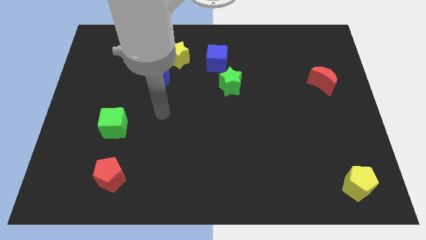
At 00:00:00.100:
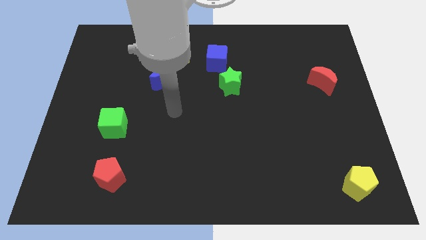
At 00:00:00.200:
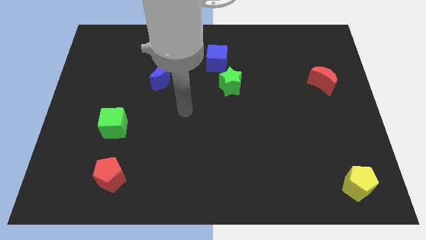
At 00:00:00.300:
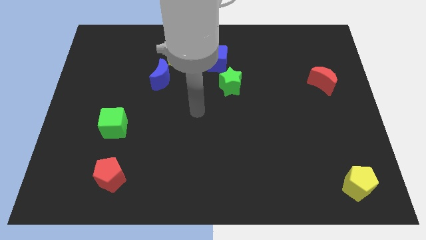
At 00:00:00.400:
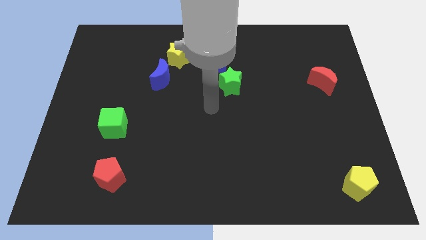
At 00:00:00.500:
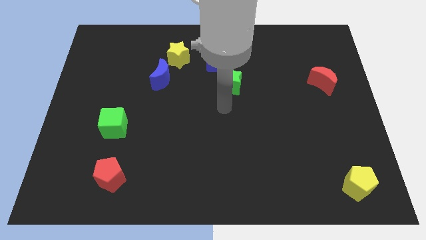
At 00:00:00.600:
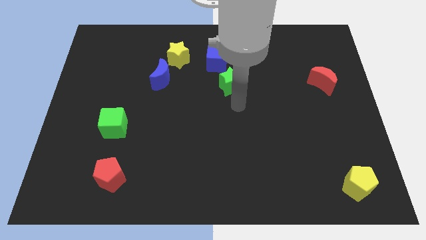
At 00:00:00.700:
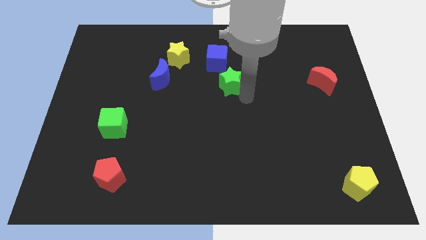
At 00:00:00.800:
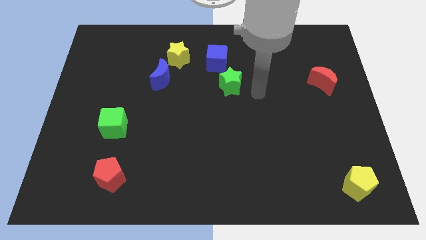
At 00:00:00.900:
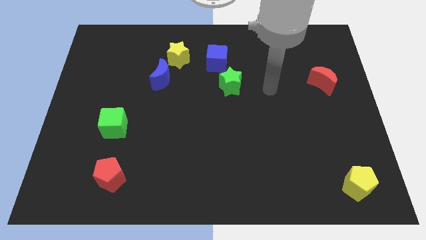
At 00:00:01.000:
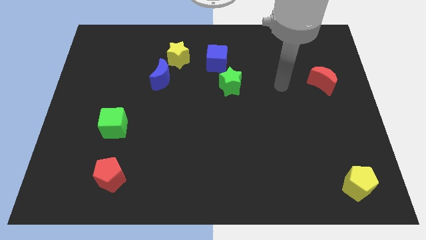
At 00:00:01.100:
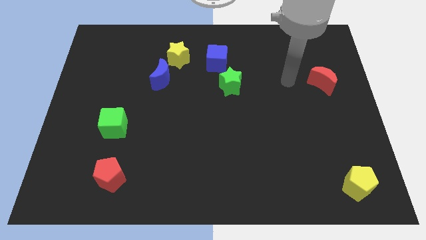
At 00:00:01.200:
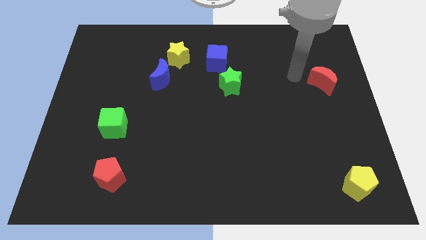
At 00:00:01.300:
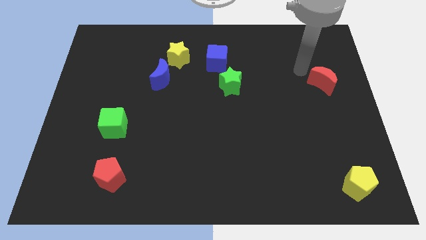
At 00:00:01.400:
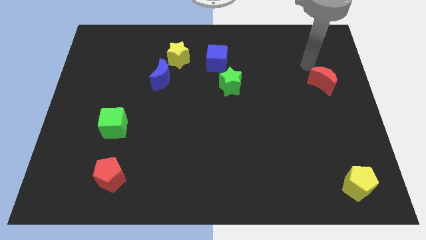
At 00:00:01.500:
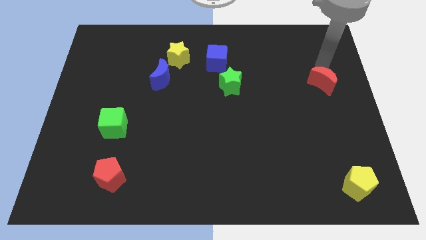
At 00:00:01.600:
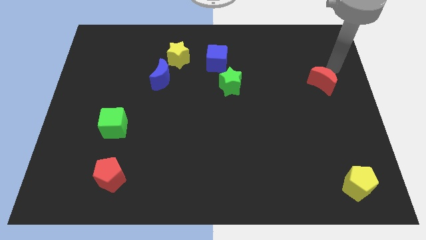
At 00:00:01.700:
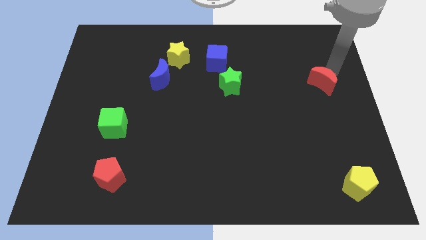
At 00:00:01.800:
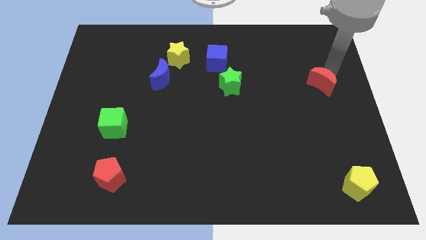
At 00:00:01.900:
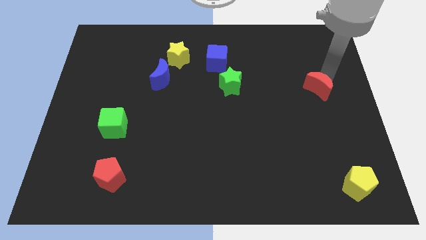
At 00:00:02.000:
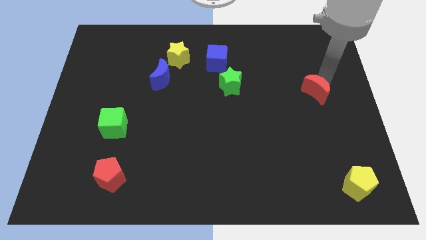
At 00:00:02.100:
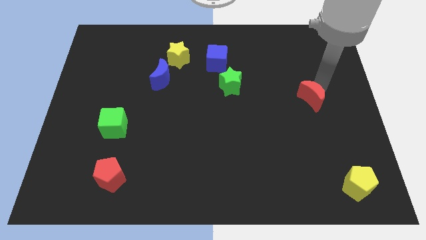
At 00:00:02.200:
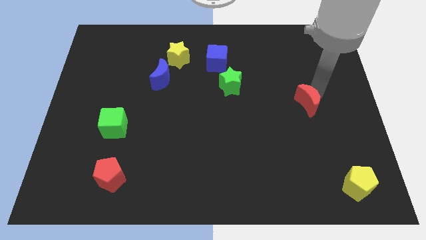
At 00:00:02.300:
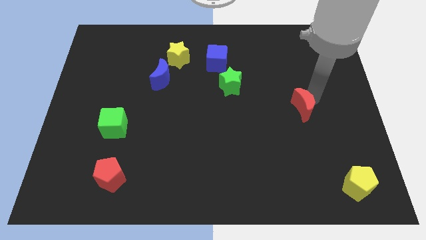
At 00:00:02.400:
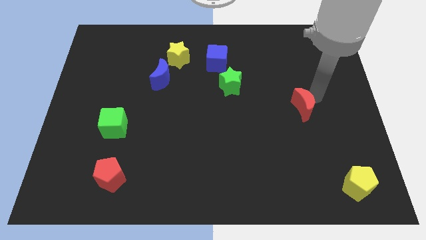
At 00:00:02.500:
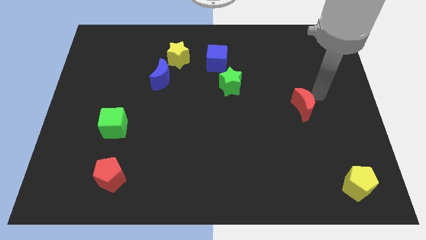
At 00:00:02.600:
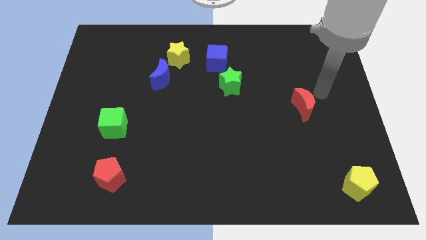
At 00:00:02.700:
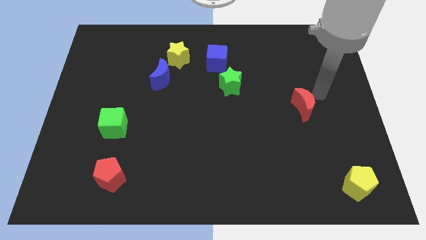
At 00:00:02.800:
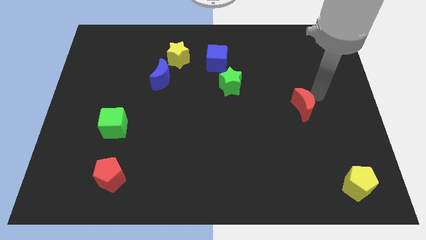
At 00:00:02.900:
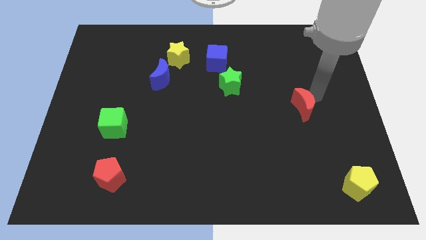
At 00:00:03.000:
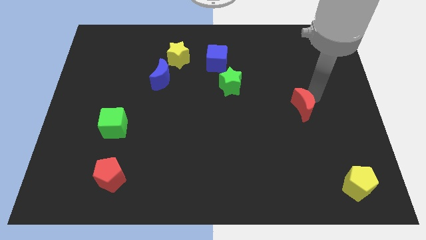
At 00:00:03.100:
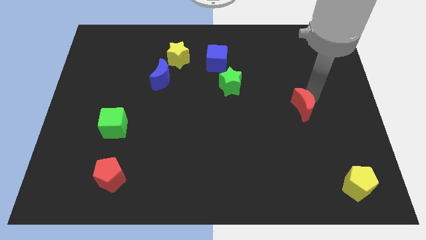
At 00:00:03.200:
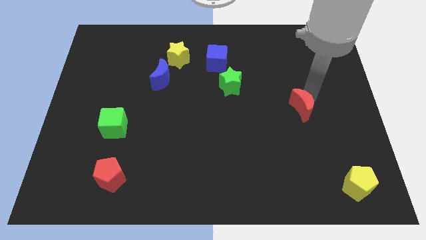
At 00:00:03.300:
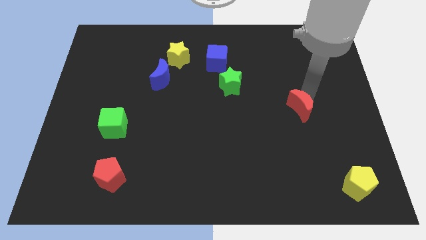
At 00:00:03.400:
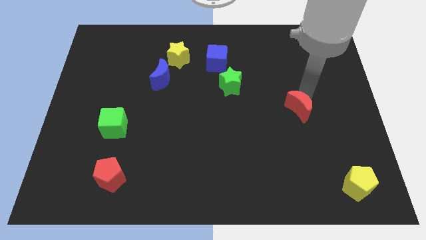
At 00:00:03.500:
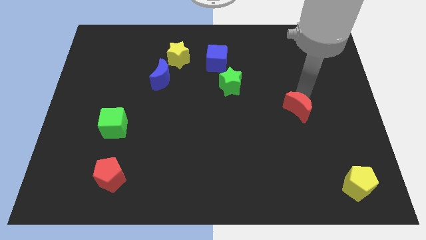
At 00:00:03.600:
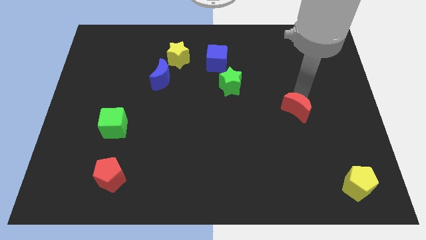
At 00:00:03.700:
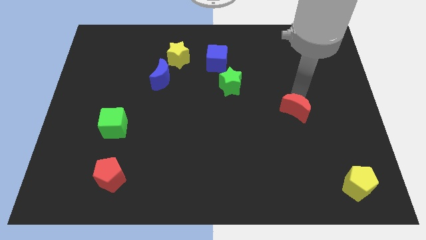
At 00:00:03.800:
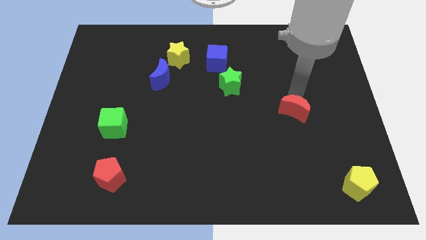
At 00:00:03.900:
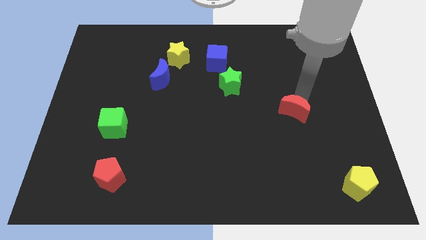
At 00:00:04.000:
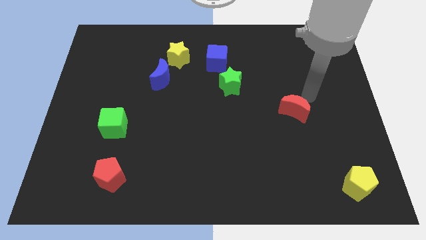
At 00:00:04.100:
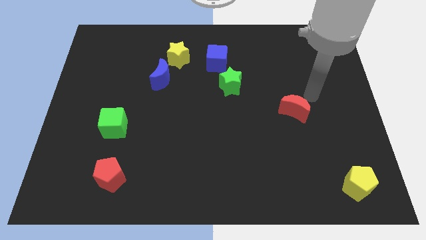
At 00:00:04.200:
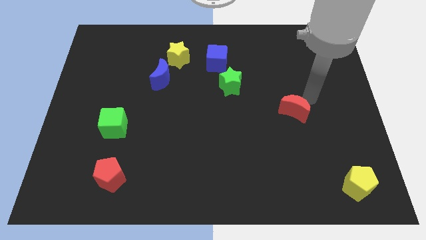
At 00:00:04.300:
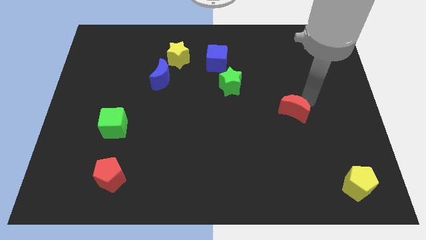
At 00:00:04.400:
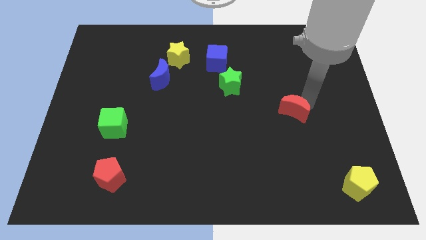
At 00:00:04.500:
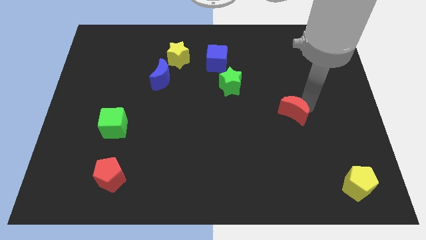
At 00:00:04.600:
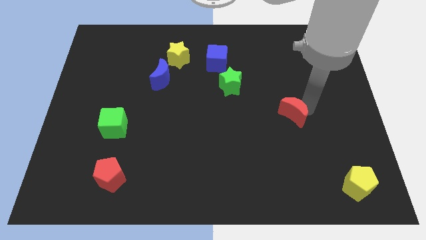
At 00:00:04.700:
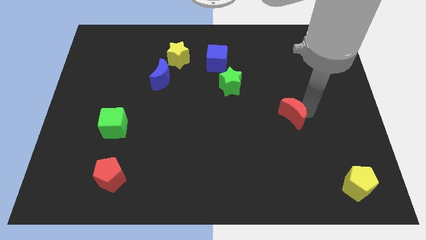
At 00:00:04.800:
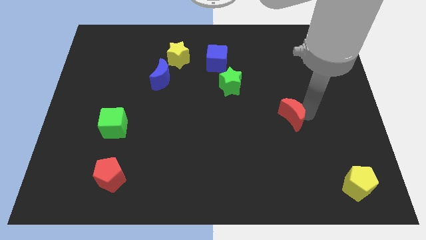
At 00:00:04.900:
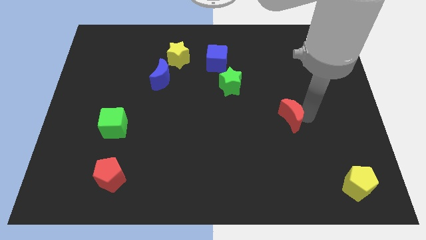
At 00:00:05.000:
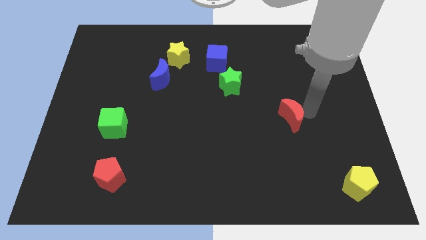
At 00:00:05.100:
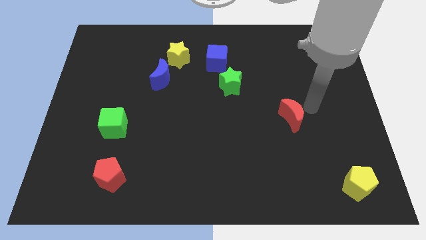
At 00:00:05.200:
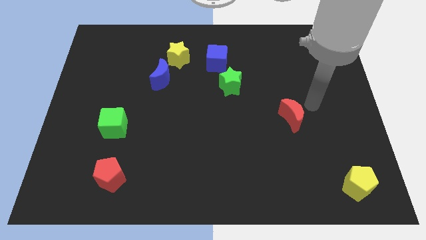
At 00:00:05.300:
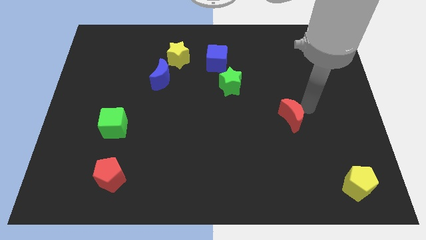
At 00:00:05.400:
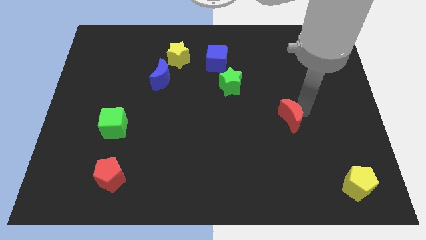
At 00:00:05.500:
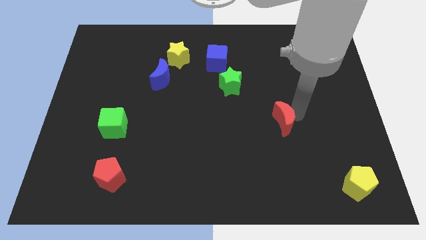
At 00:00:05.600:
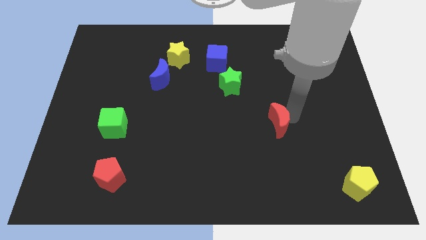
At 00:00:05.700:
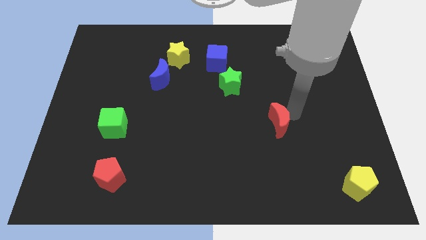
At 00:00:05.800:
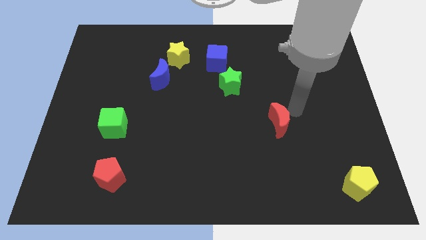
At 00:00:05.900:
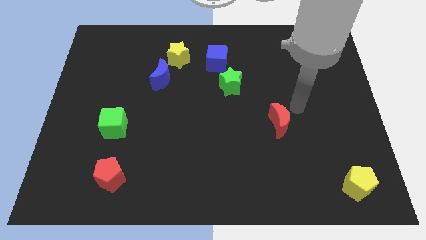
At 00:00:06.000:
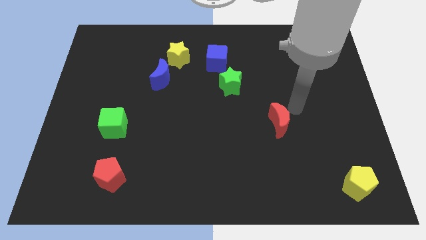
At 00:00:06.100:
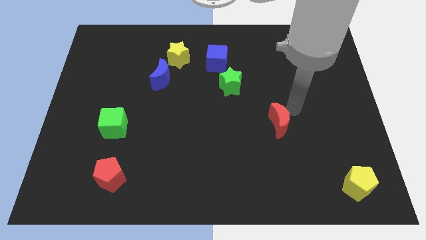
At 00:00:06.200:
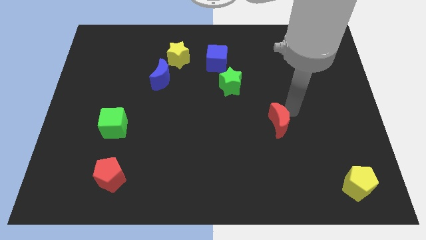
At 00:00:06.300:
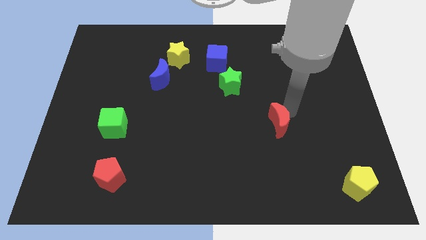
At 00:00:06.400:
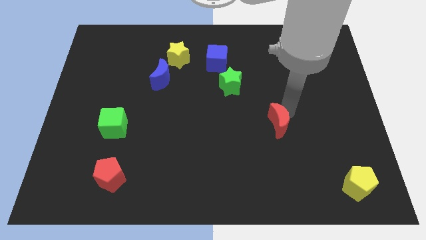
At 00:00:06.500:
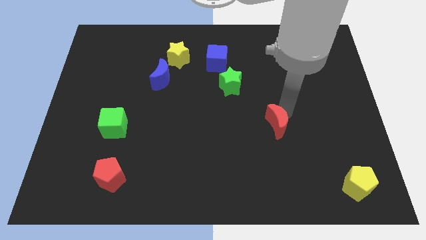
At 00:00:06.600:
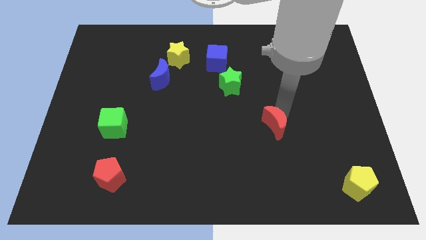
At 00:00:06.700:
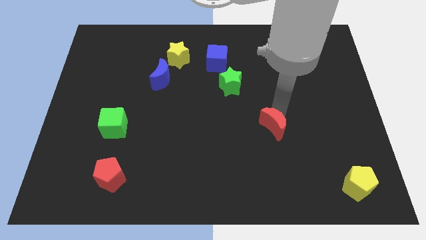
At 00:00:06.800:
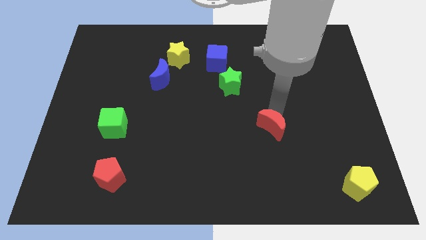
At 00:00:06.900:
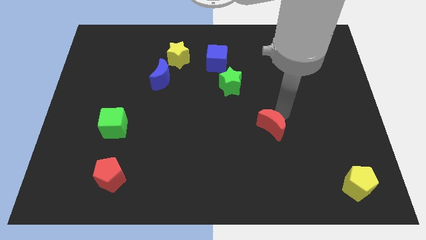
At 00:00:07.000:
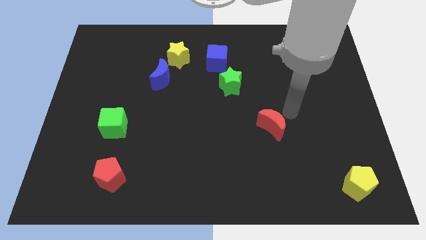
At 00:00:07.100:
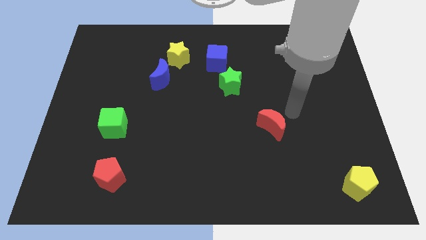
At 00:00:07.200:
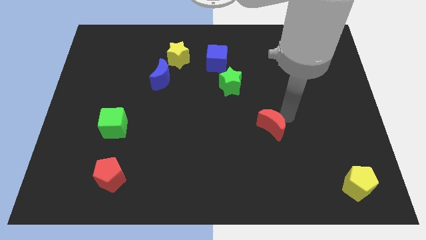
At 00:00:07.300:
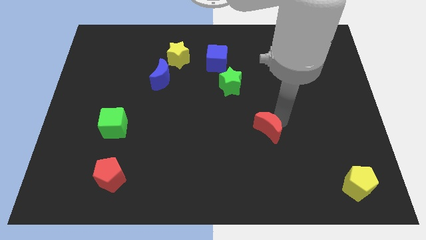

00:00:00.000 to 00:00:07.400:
slide the red moon downwards and to the left

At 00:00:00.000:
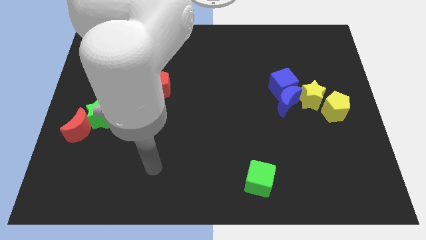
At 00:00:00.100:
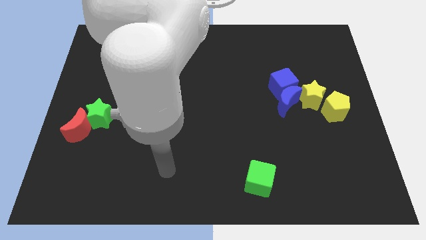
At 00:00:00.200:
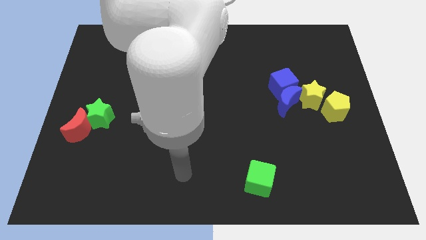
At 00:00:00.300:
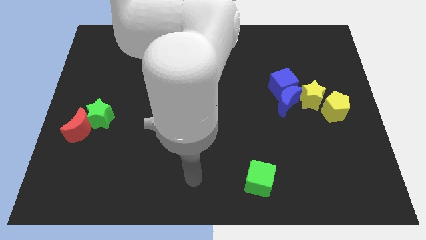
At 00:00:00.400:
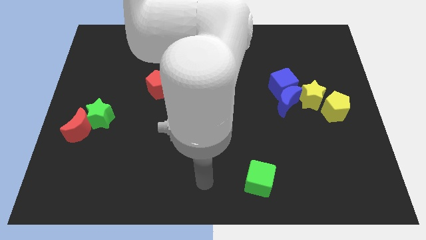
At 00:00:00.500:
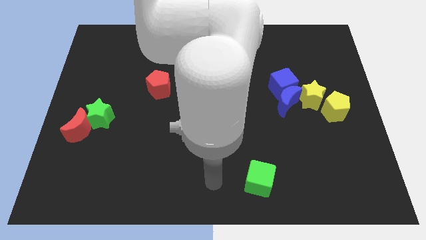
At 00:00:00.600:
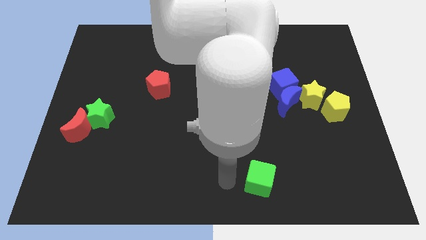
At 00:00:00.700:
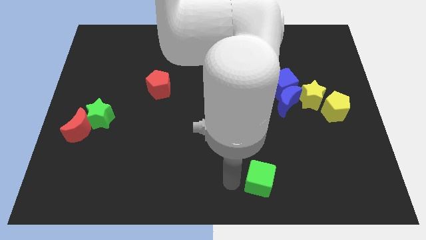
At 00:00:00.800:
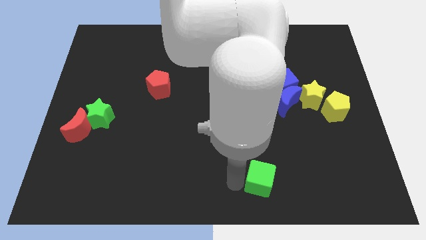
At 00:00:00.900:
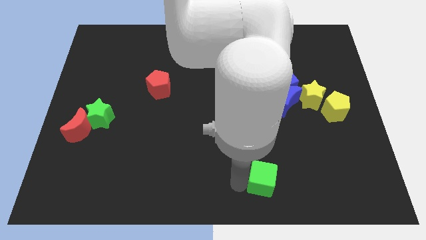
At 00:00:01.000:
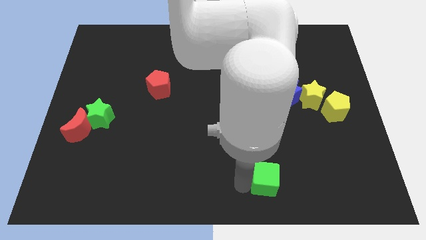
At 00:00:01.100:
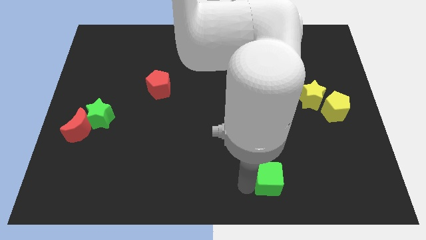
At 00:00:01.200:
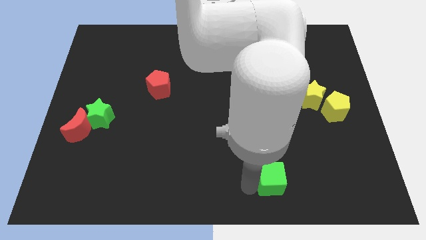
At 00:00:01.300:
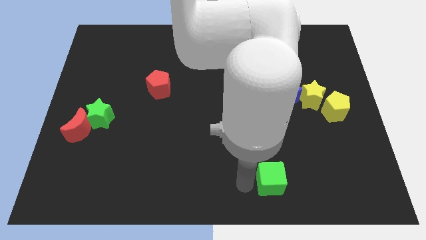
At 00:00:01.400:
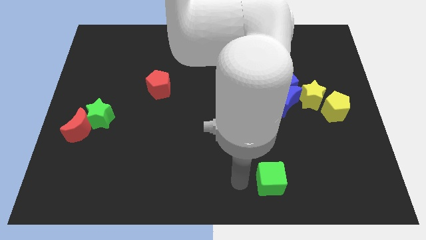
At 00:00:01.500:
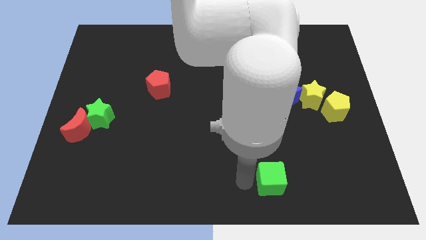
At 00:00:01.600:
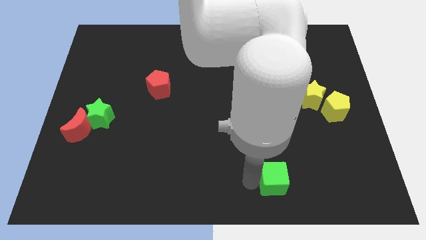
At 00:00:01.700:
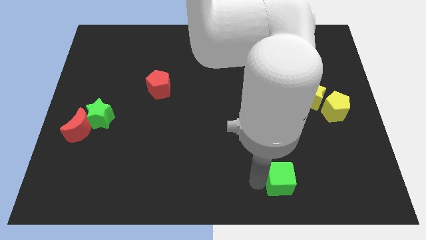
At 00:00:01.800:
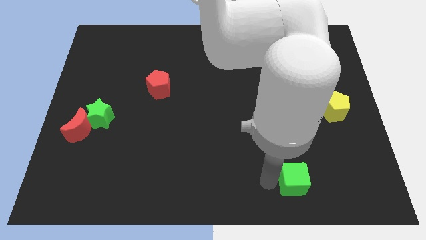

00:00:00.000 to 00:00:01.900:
move the green cube a little right
